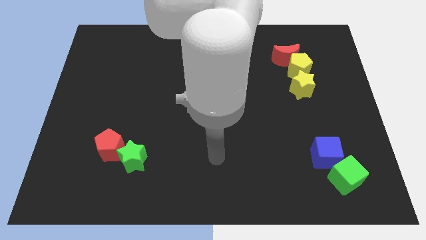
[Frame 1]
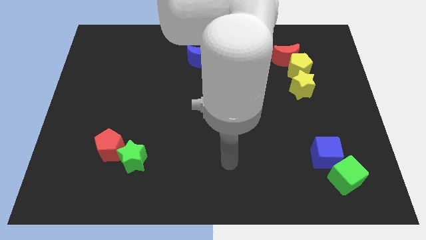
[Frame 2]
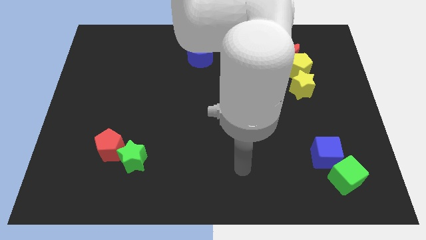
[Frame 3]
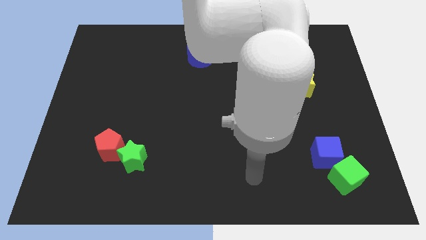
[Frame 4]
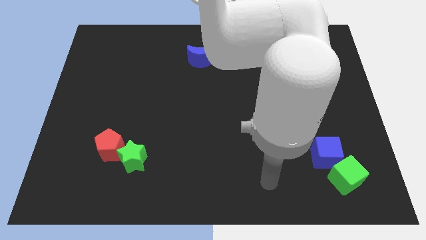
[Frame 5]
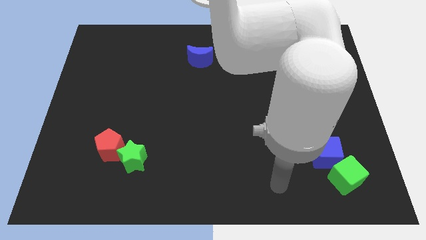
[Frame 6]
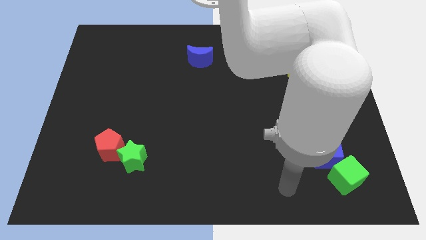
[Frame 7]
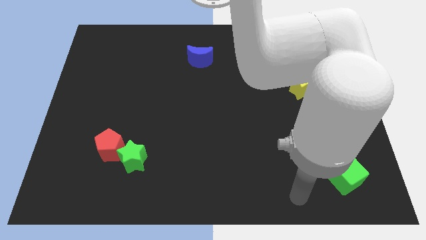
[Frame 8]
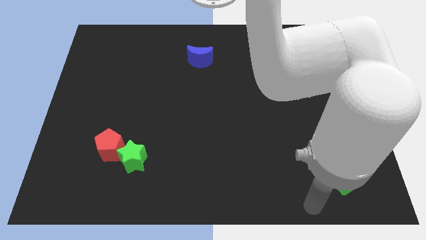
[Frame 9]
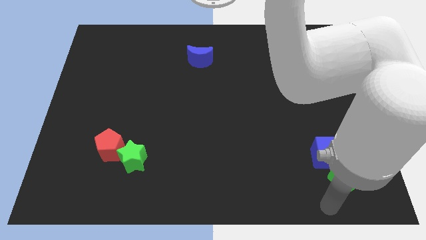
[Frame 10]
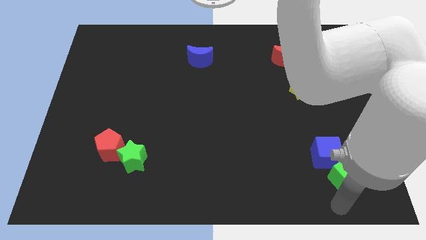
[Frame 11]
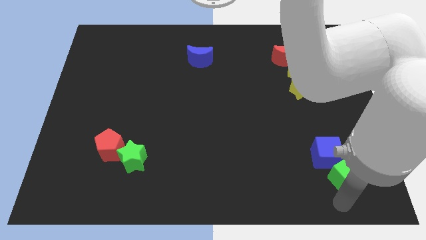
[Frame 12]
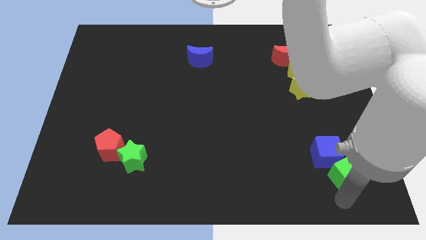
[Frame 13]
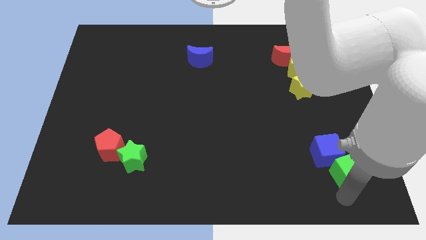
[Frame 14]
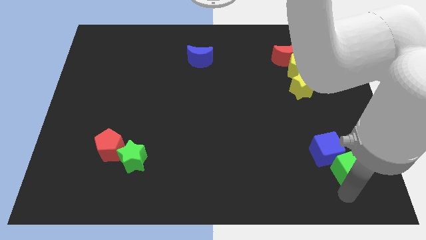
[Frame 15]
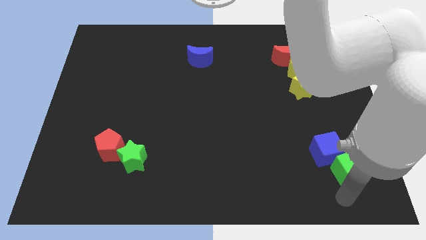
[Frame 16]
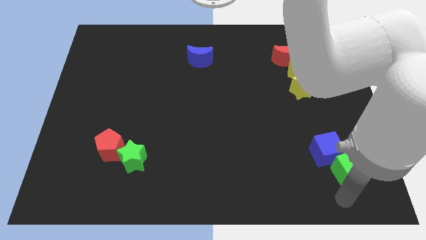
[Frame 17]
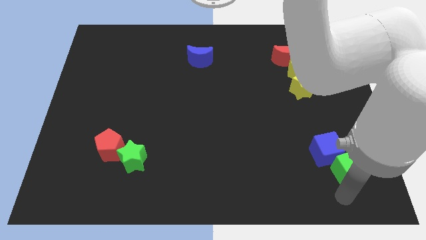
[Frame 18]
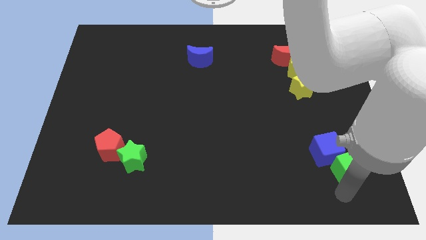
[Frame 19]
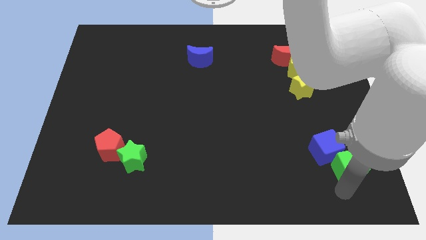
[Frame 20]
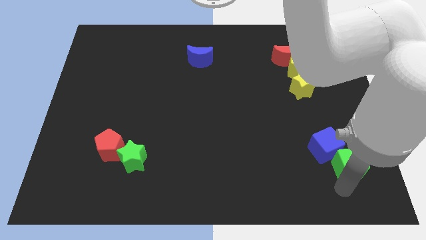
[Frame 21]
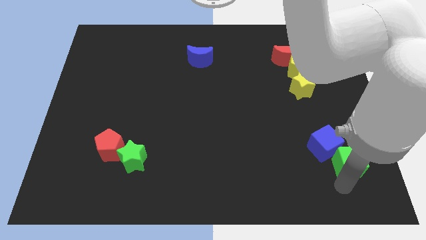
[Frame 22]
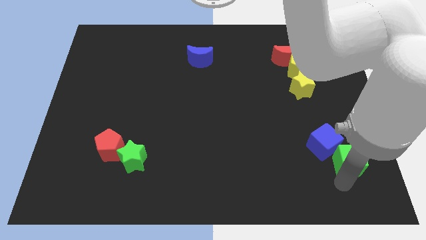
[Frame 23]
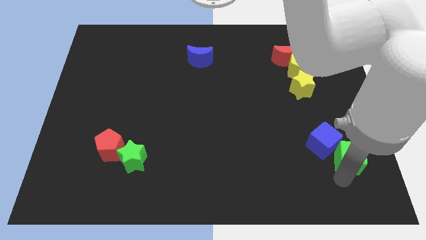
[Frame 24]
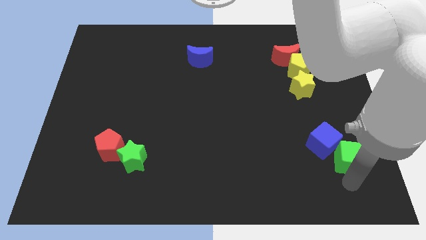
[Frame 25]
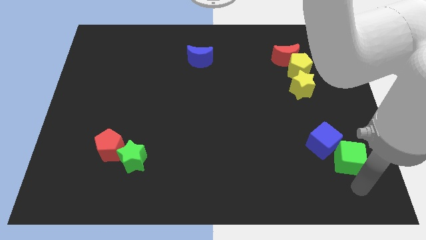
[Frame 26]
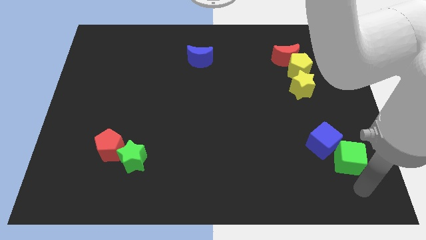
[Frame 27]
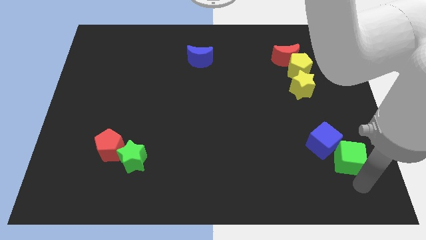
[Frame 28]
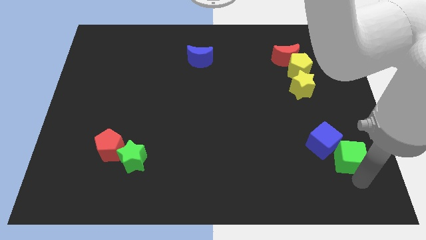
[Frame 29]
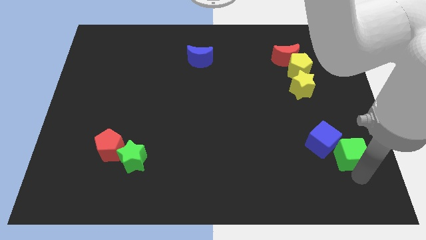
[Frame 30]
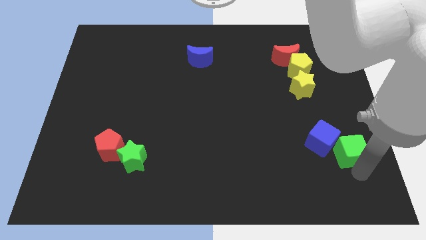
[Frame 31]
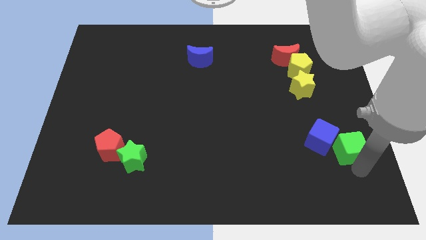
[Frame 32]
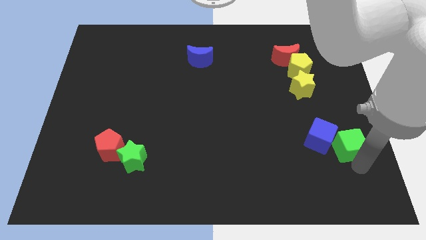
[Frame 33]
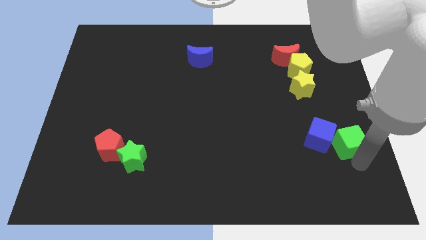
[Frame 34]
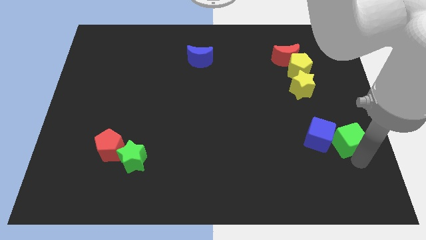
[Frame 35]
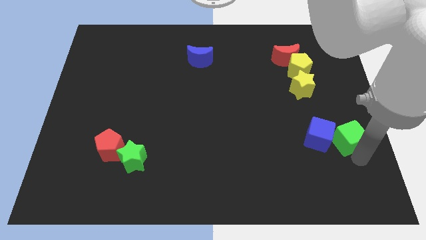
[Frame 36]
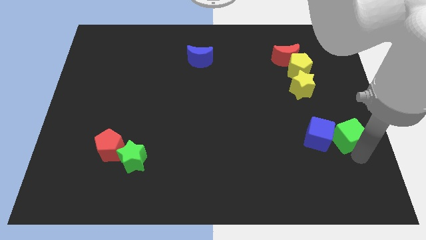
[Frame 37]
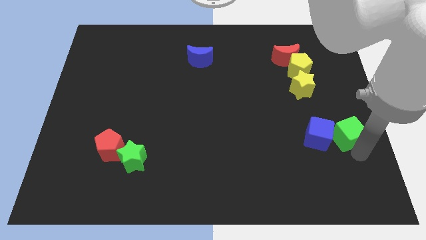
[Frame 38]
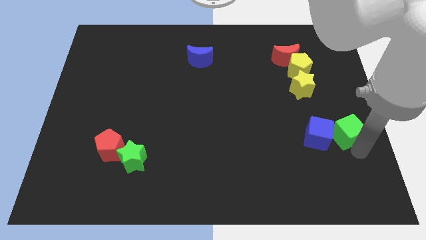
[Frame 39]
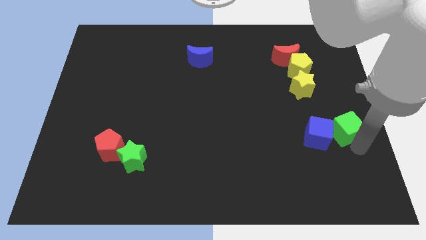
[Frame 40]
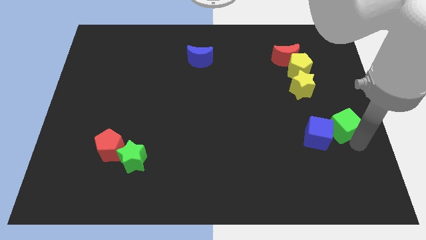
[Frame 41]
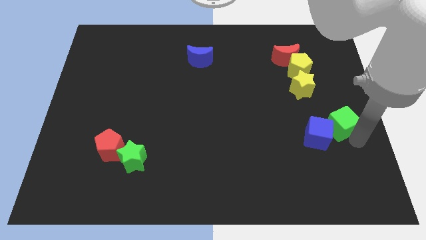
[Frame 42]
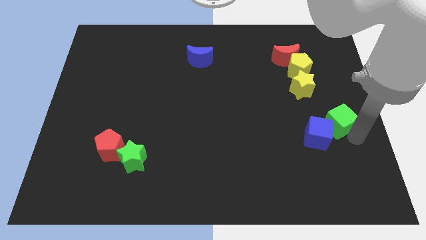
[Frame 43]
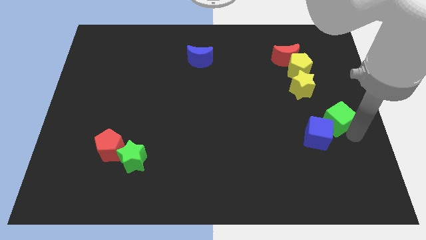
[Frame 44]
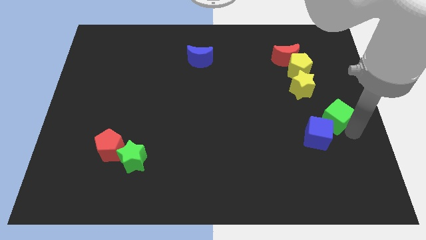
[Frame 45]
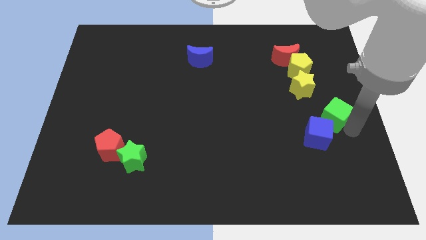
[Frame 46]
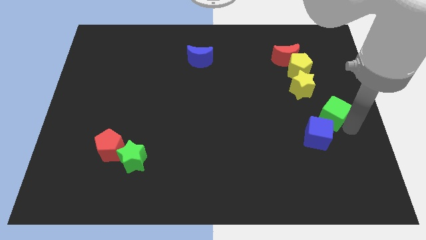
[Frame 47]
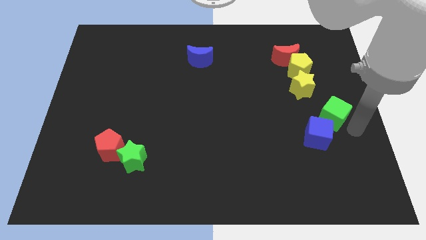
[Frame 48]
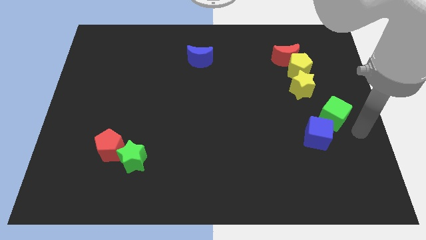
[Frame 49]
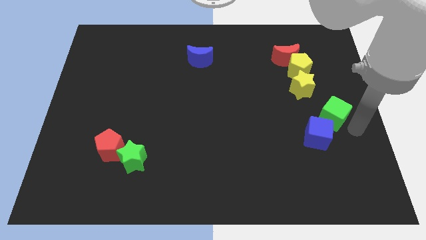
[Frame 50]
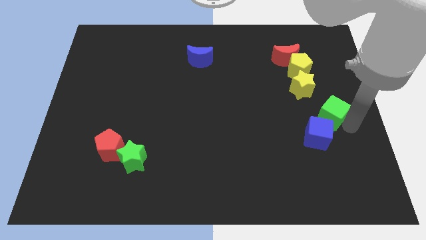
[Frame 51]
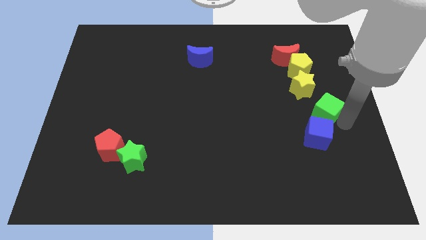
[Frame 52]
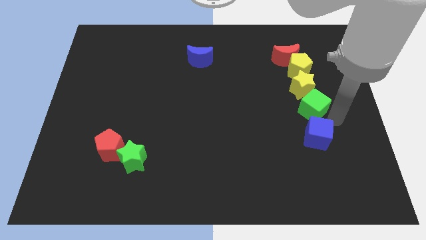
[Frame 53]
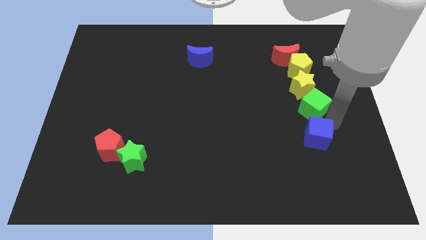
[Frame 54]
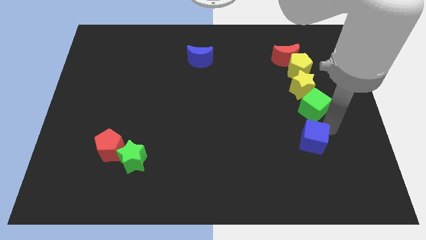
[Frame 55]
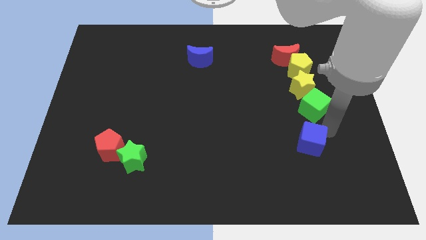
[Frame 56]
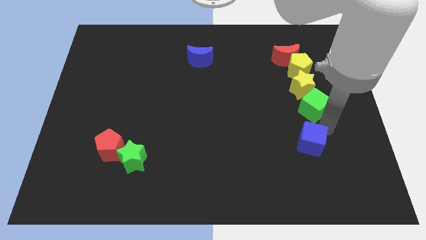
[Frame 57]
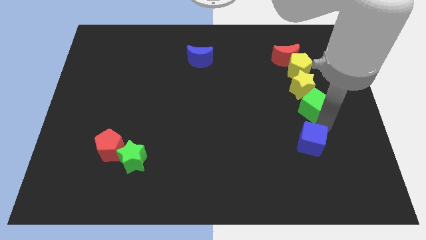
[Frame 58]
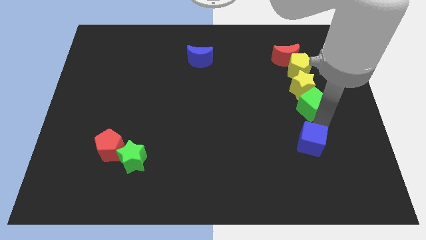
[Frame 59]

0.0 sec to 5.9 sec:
push the green cube to the yellow star

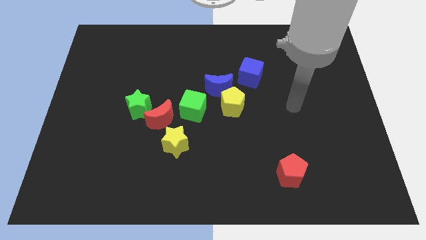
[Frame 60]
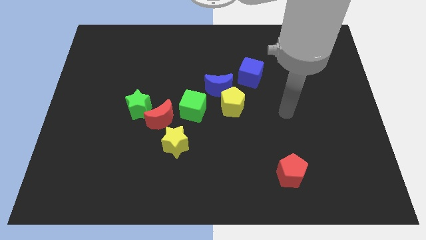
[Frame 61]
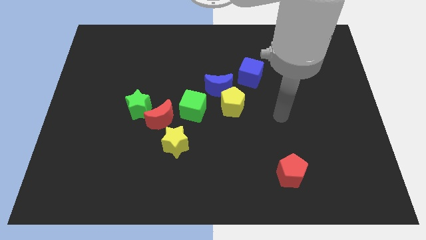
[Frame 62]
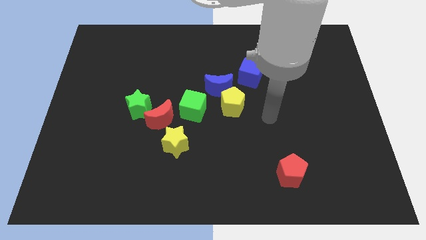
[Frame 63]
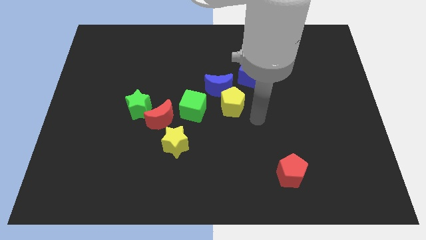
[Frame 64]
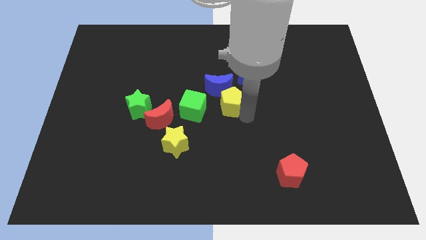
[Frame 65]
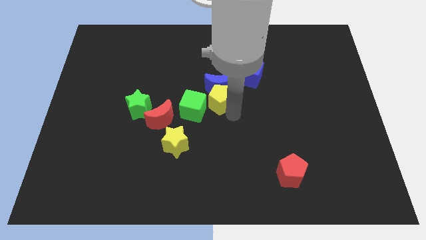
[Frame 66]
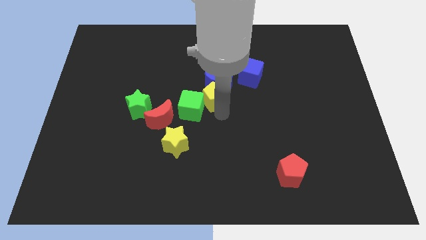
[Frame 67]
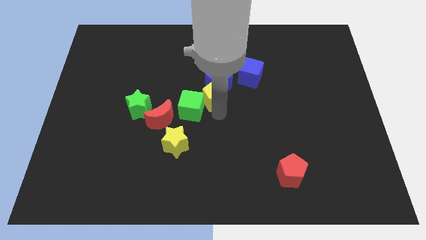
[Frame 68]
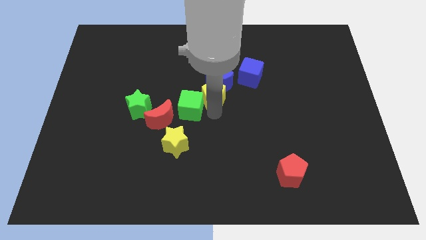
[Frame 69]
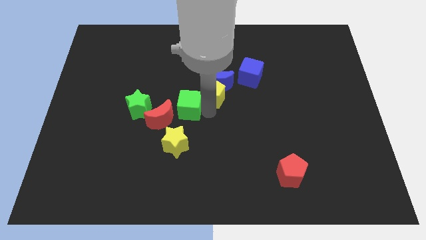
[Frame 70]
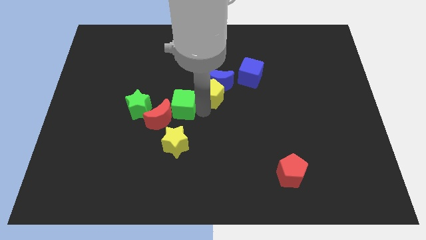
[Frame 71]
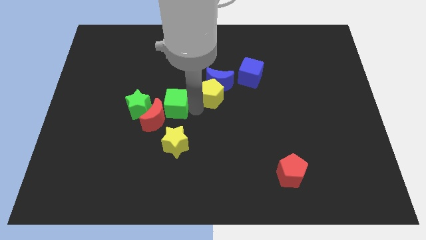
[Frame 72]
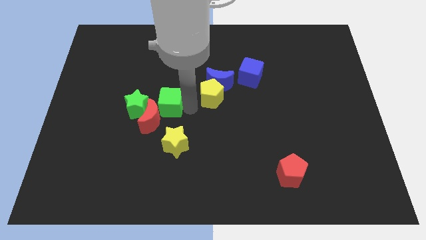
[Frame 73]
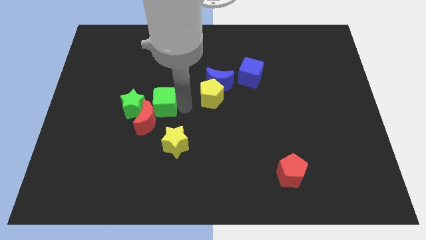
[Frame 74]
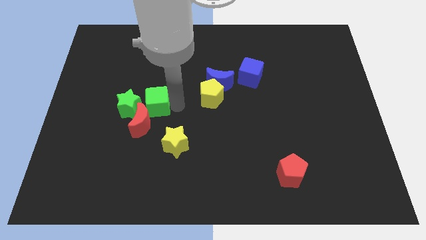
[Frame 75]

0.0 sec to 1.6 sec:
move the green cube towards the green star
